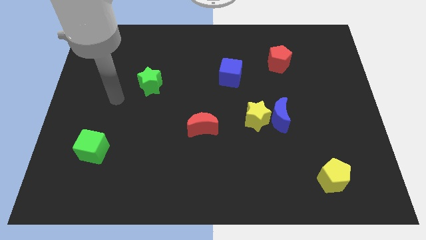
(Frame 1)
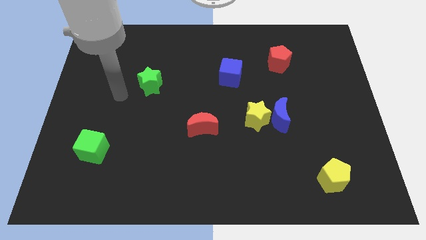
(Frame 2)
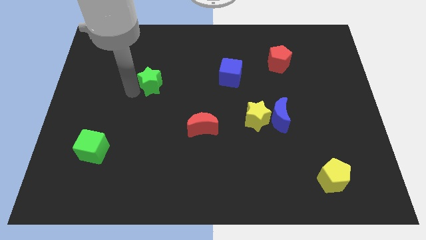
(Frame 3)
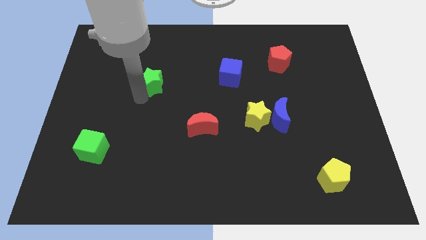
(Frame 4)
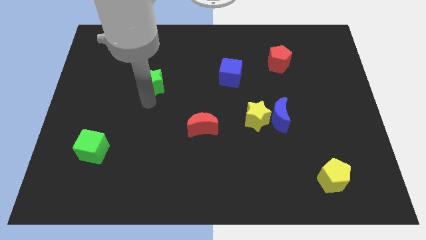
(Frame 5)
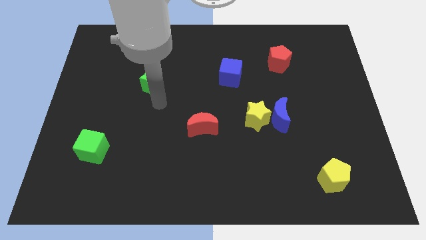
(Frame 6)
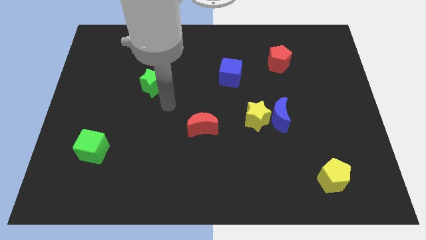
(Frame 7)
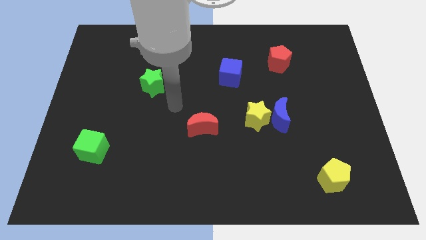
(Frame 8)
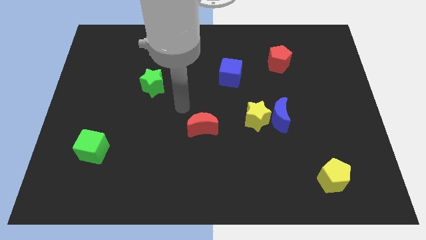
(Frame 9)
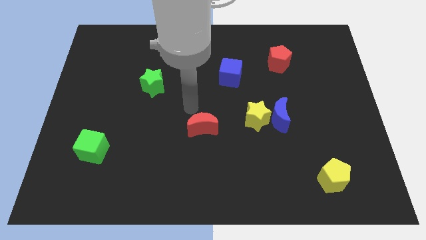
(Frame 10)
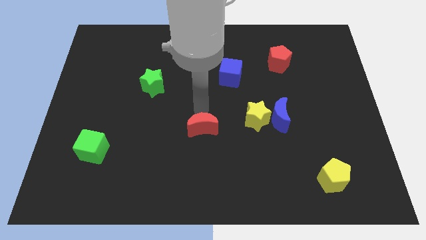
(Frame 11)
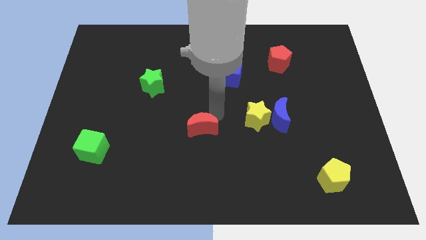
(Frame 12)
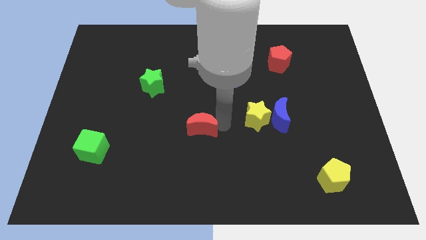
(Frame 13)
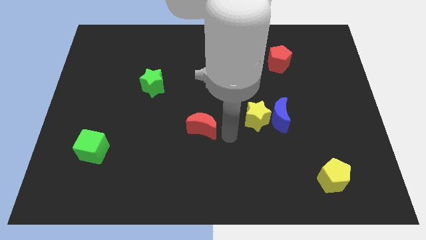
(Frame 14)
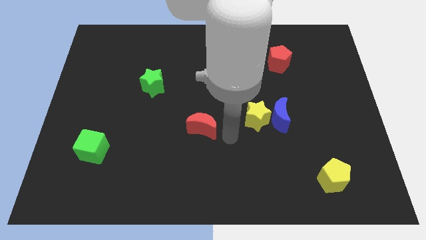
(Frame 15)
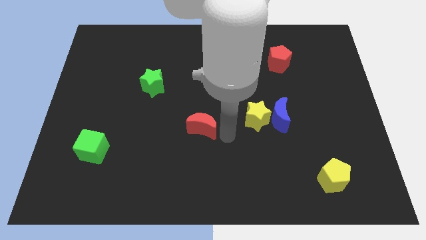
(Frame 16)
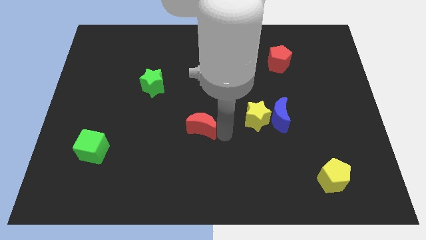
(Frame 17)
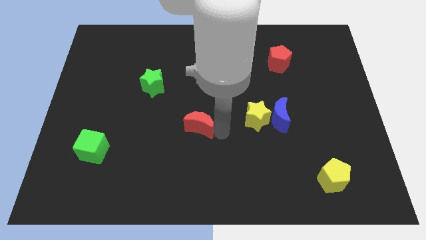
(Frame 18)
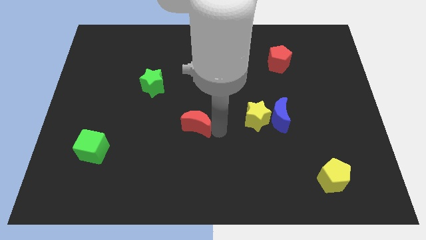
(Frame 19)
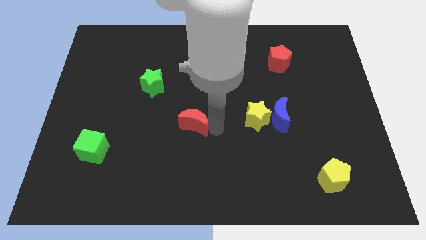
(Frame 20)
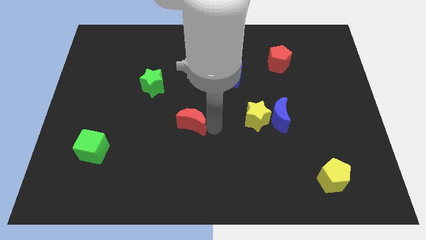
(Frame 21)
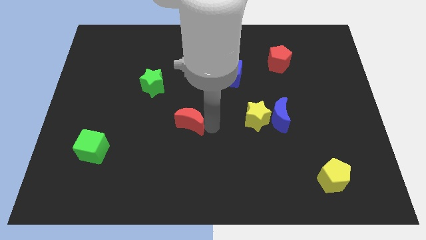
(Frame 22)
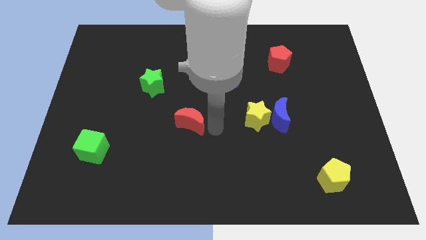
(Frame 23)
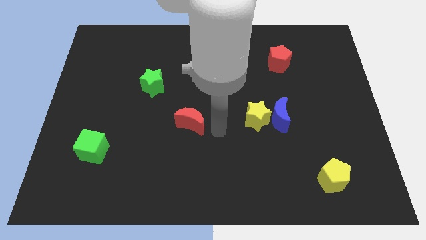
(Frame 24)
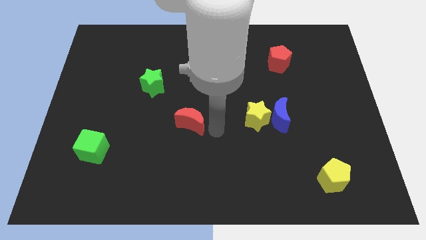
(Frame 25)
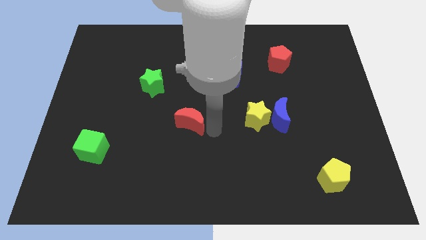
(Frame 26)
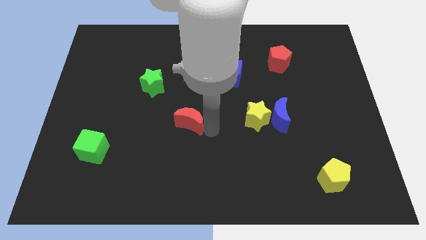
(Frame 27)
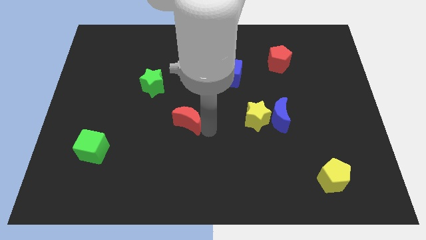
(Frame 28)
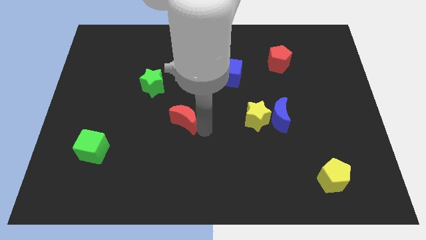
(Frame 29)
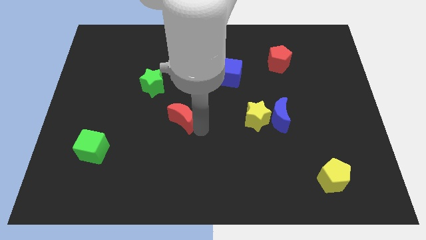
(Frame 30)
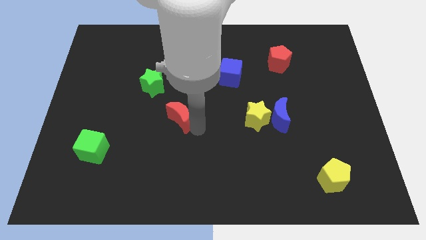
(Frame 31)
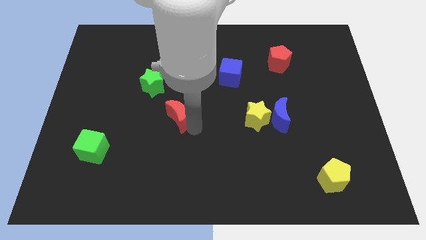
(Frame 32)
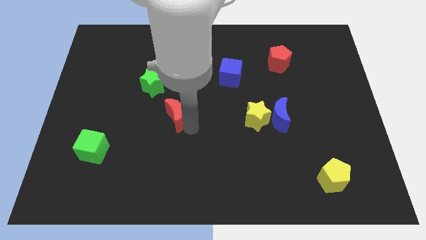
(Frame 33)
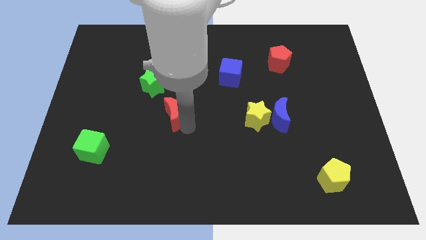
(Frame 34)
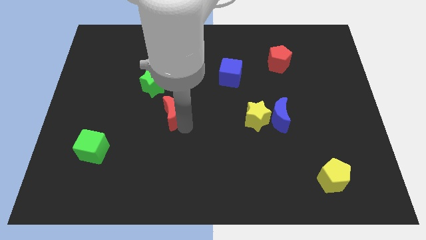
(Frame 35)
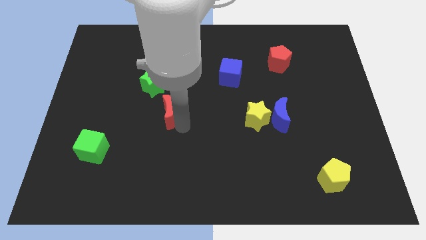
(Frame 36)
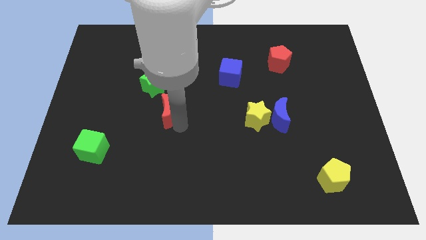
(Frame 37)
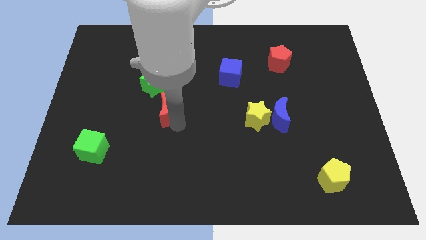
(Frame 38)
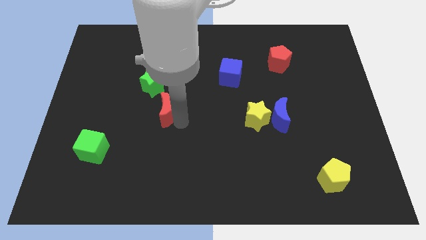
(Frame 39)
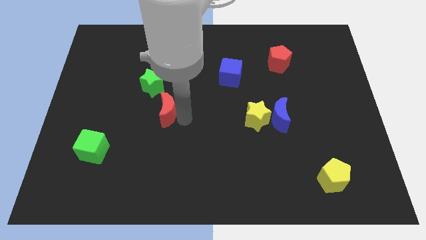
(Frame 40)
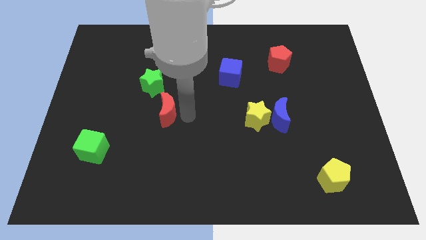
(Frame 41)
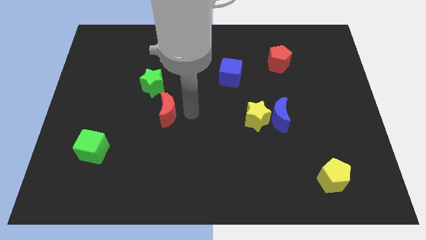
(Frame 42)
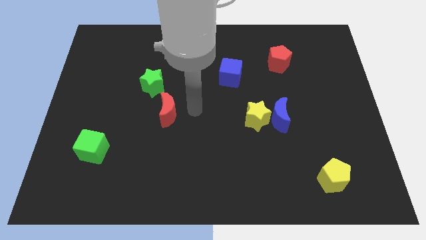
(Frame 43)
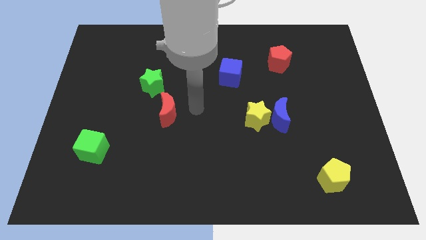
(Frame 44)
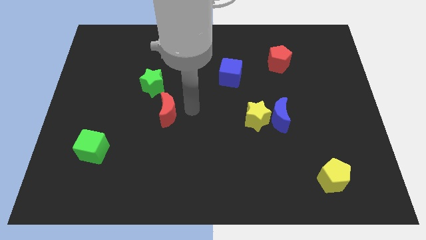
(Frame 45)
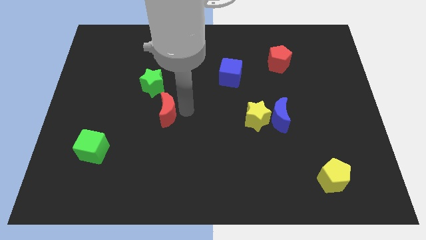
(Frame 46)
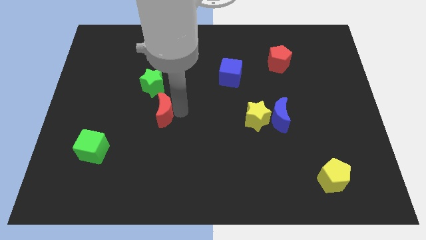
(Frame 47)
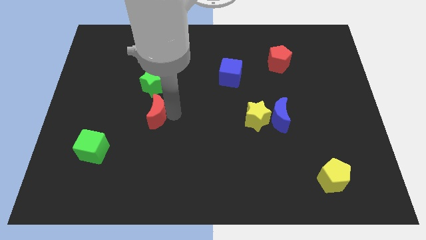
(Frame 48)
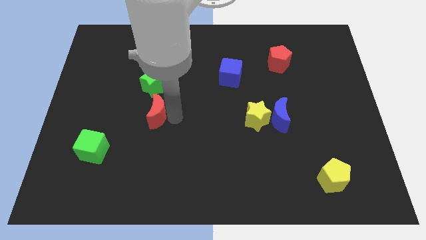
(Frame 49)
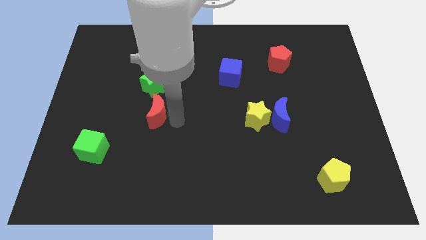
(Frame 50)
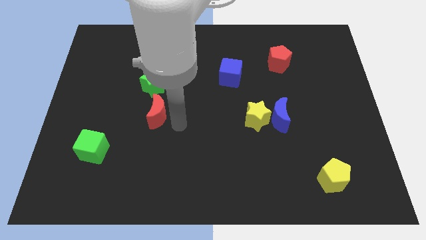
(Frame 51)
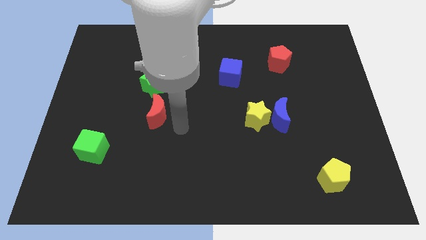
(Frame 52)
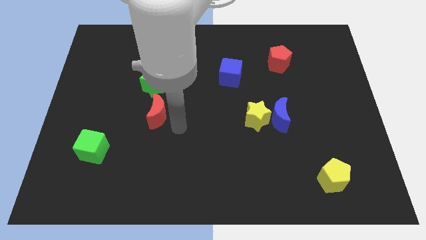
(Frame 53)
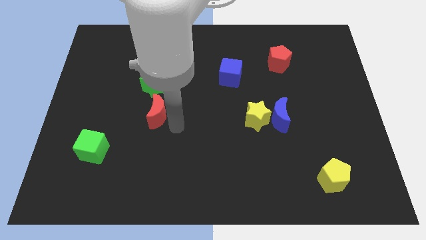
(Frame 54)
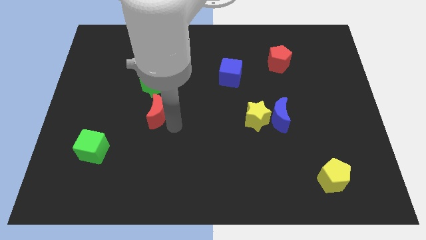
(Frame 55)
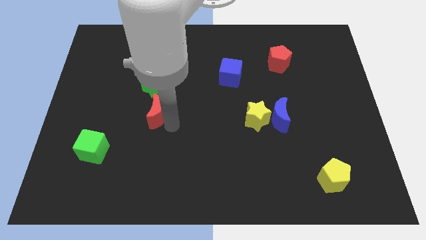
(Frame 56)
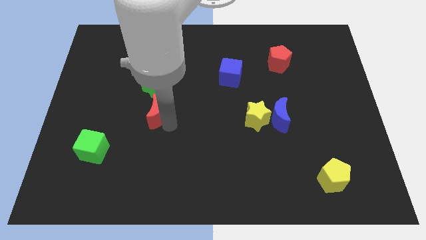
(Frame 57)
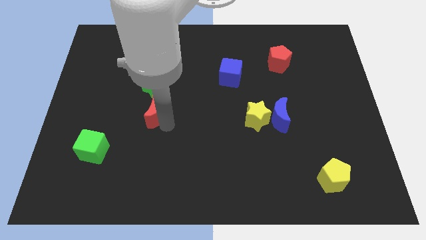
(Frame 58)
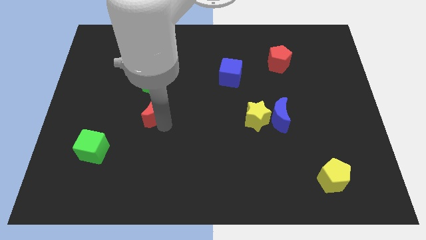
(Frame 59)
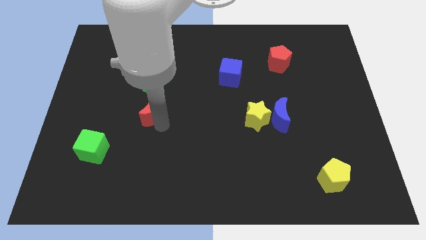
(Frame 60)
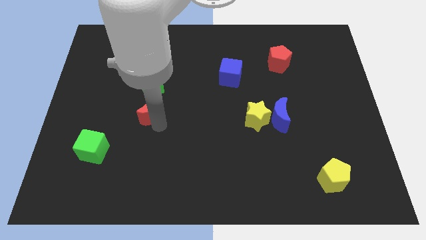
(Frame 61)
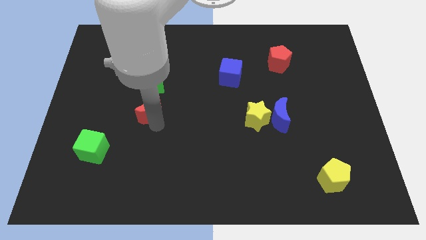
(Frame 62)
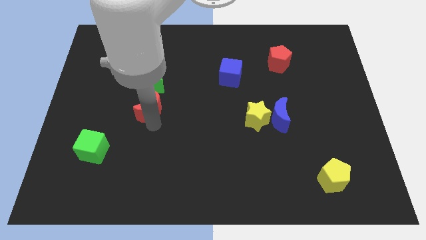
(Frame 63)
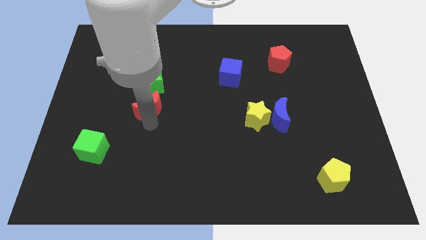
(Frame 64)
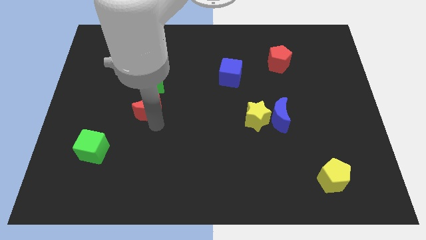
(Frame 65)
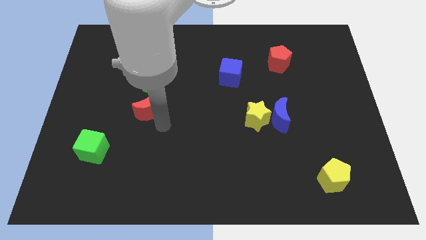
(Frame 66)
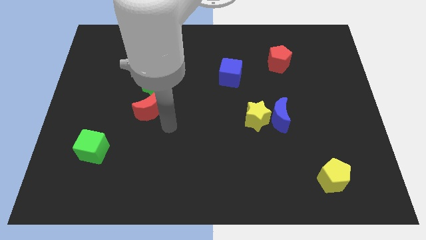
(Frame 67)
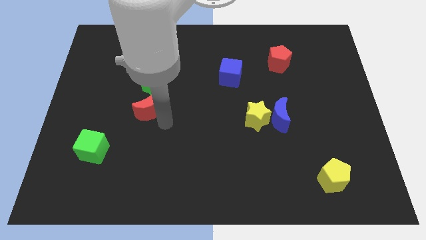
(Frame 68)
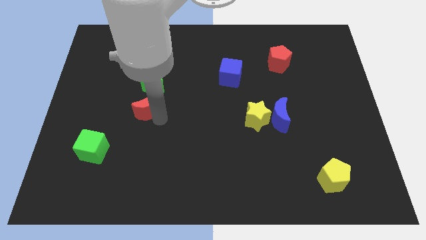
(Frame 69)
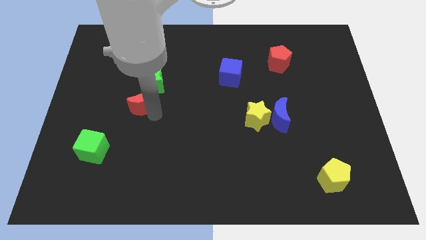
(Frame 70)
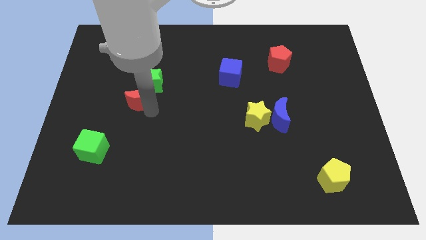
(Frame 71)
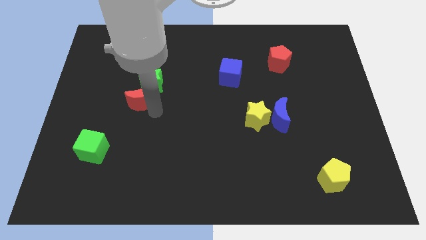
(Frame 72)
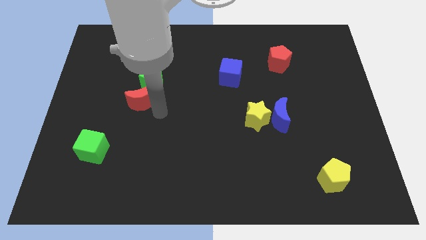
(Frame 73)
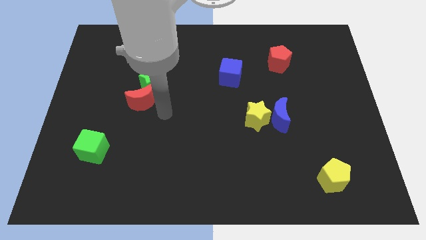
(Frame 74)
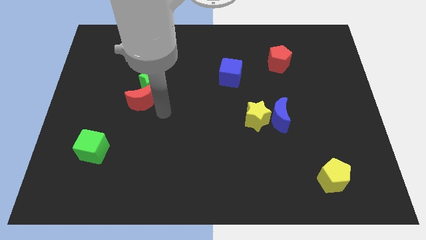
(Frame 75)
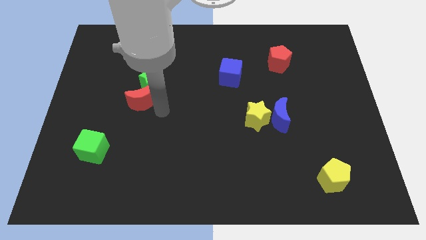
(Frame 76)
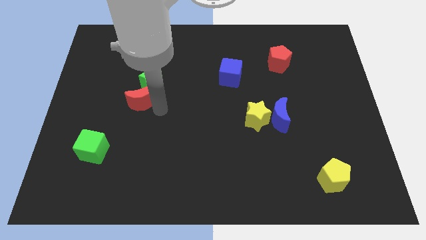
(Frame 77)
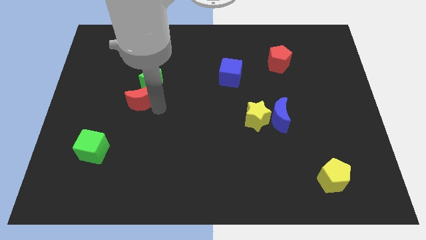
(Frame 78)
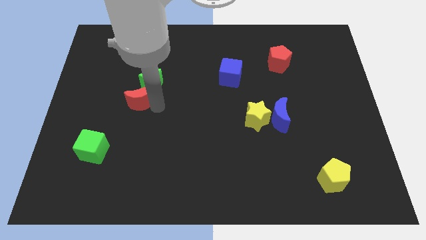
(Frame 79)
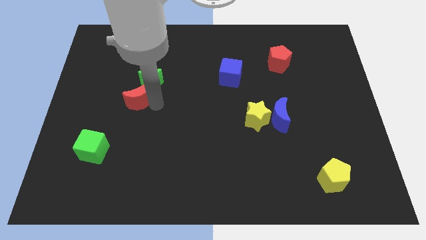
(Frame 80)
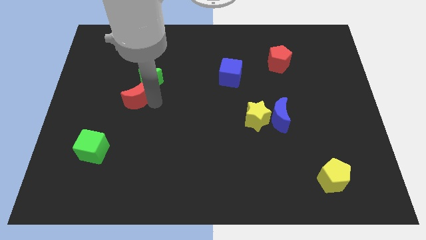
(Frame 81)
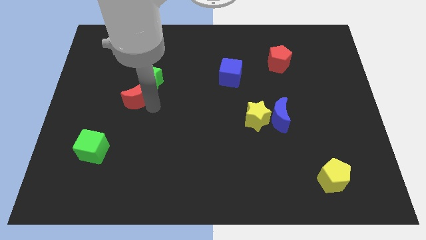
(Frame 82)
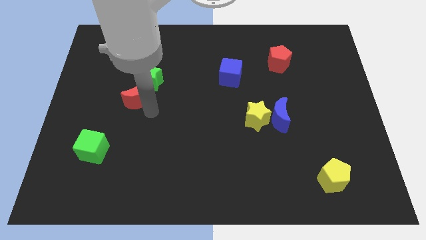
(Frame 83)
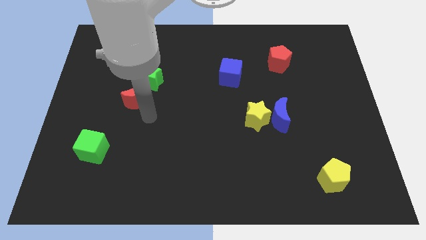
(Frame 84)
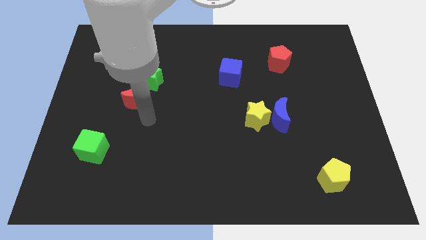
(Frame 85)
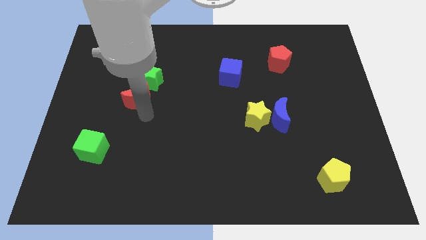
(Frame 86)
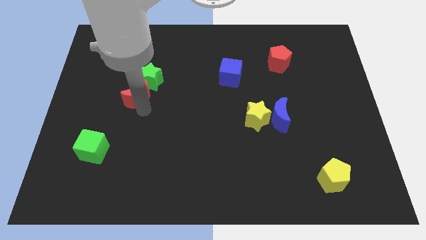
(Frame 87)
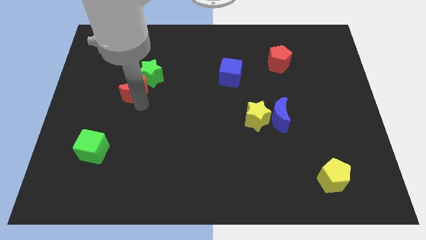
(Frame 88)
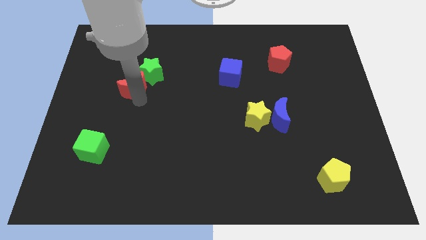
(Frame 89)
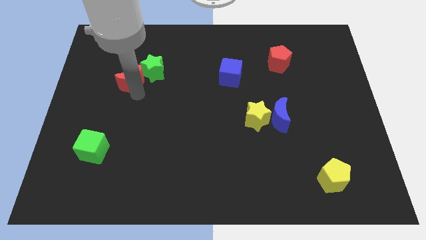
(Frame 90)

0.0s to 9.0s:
slide the red moon up and left
